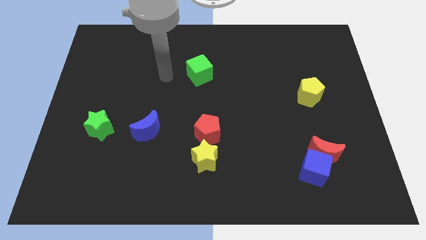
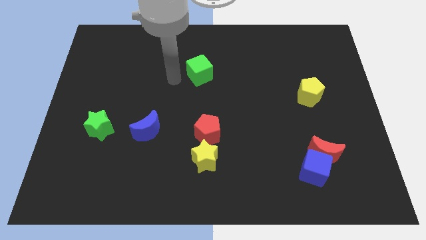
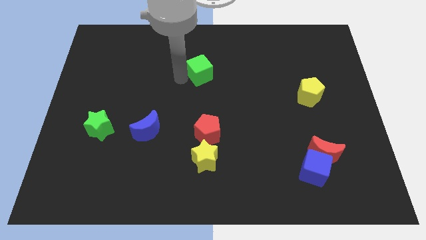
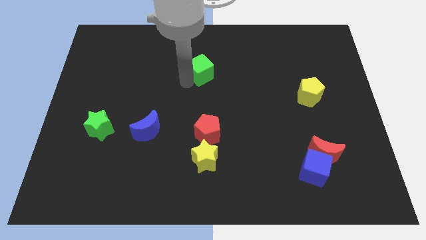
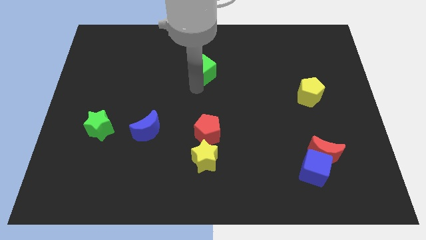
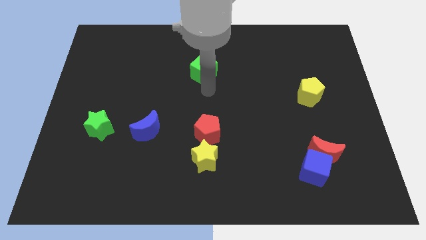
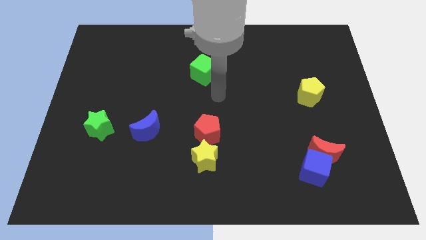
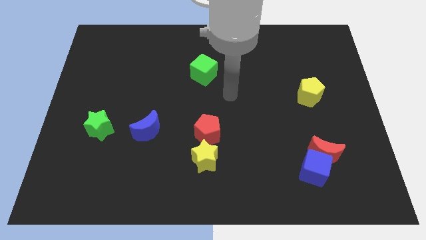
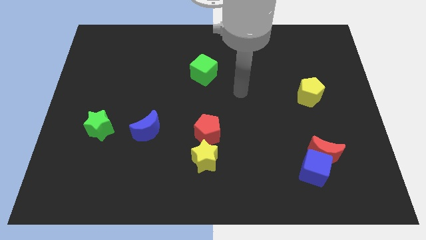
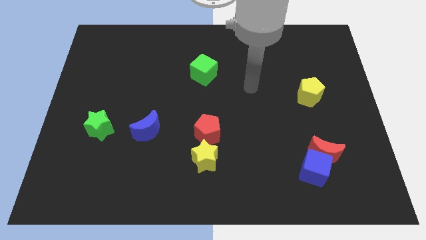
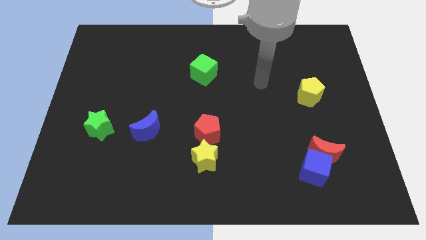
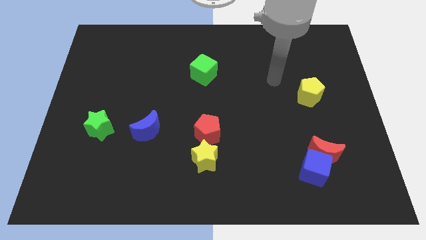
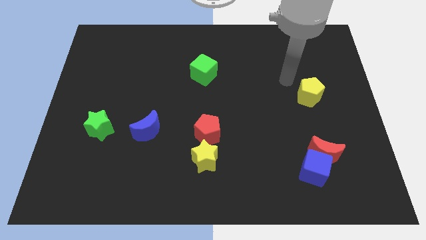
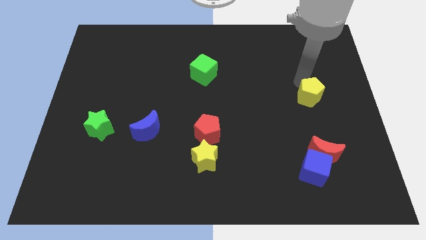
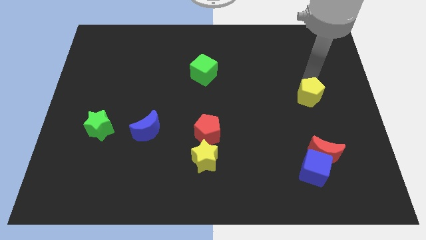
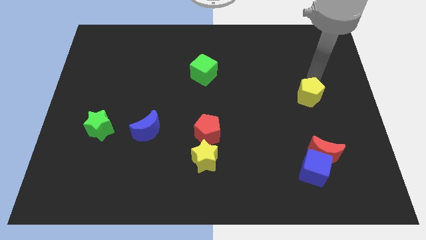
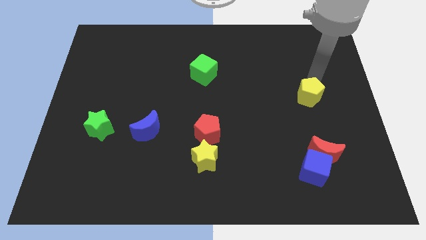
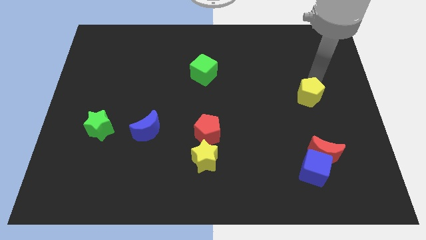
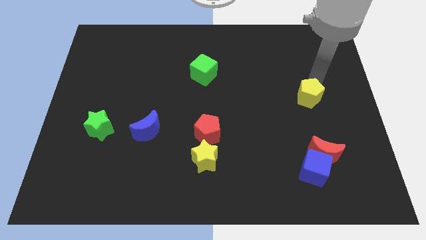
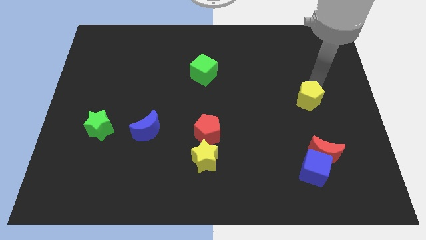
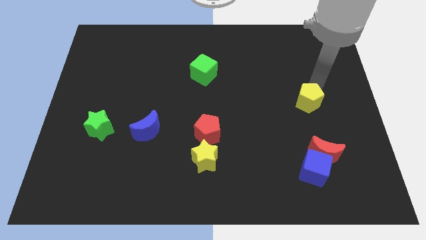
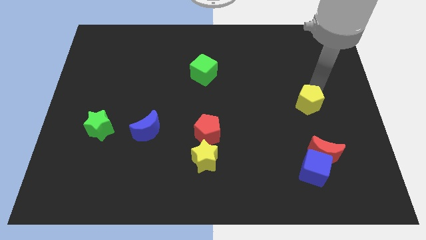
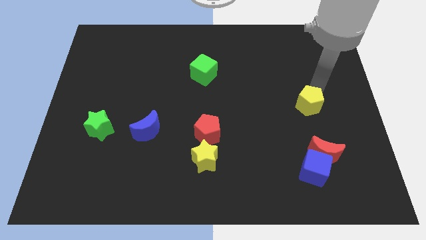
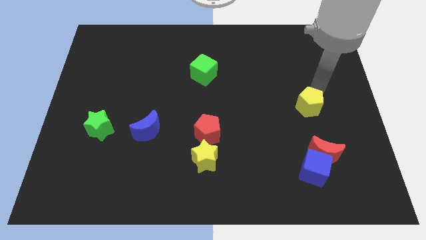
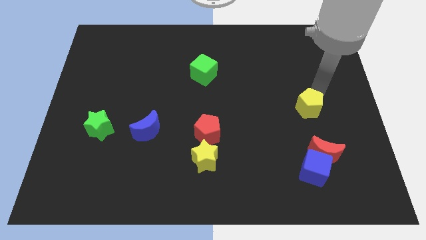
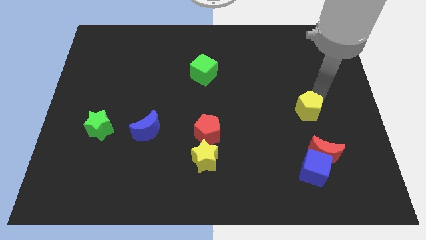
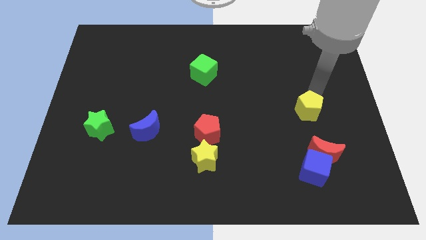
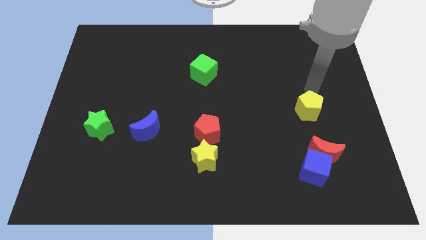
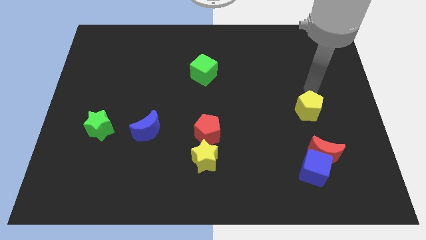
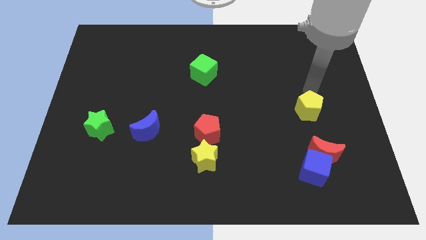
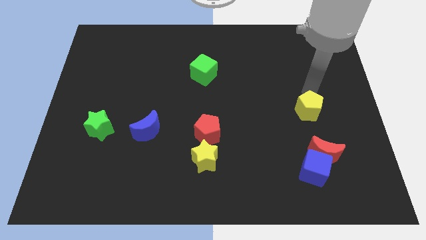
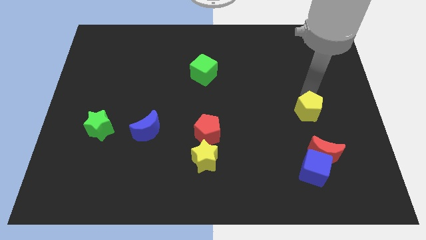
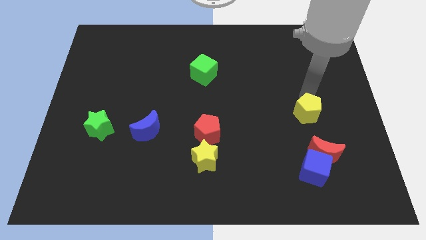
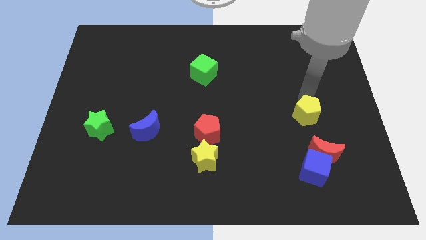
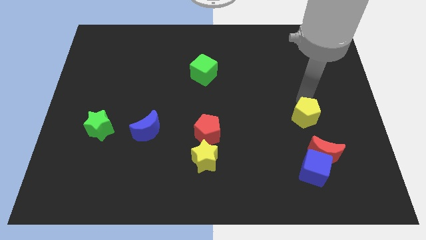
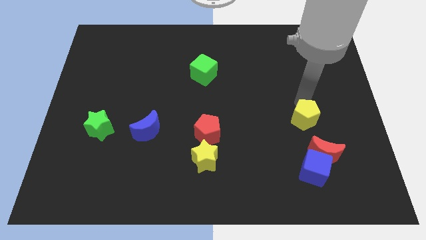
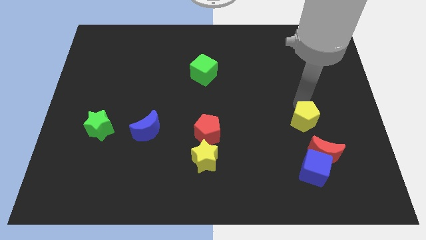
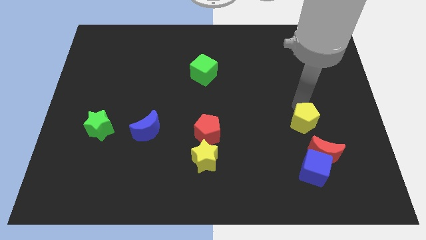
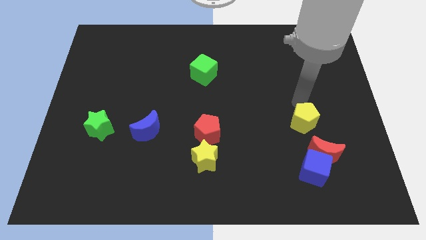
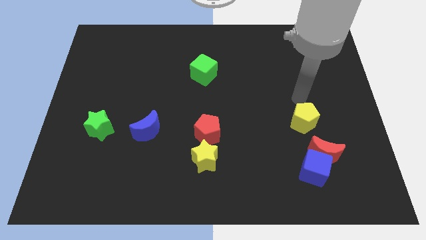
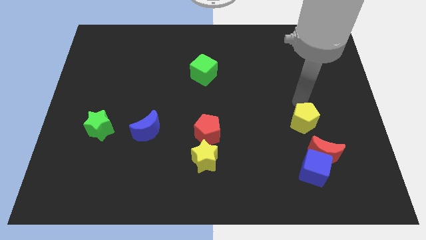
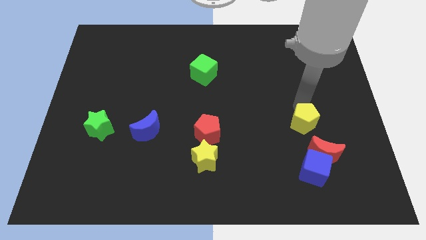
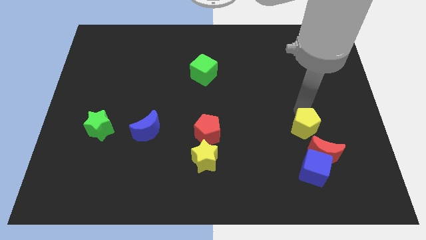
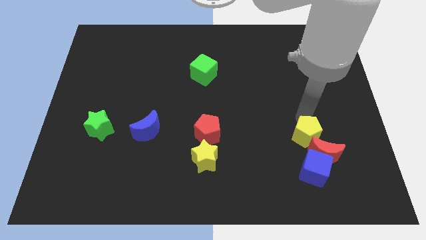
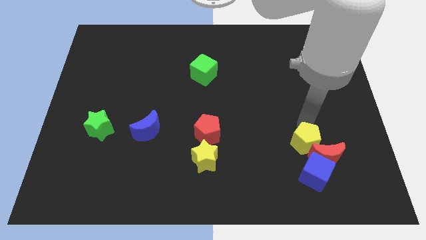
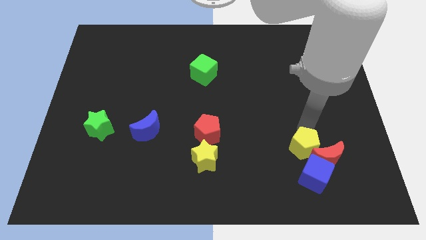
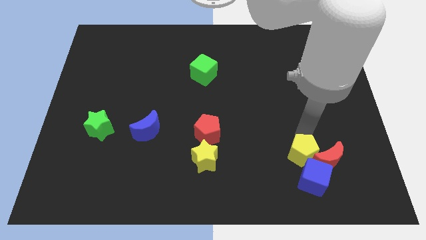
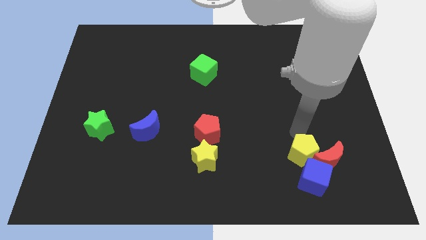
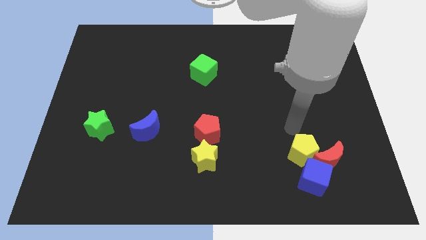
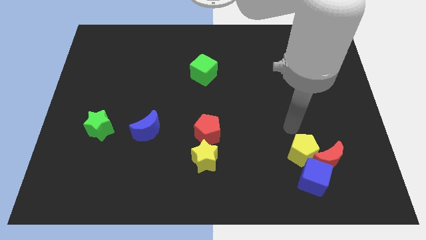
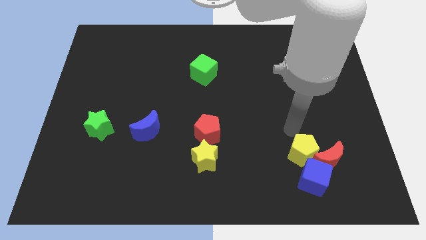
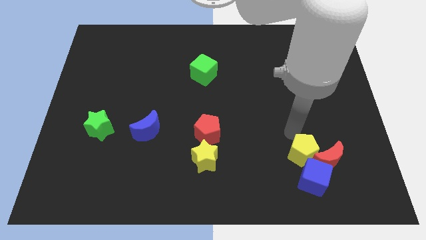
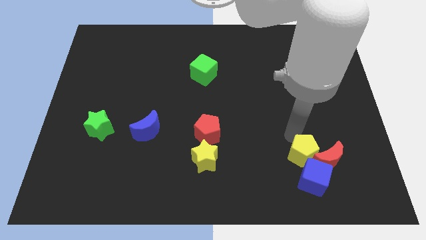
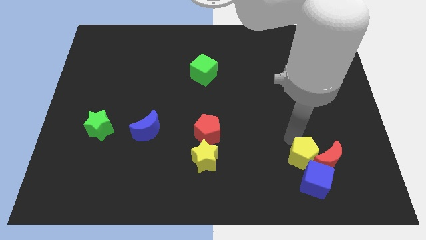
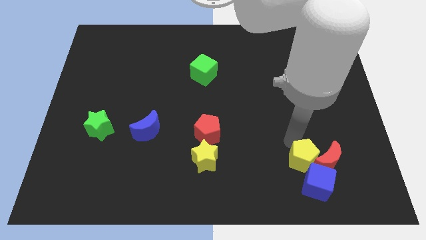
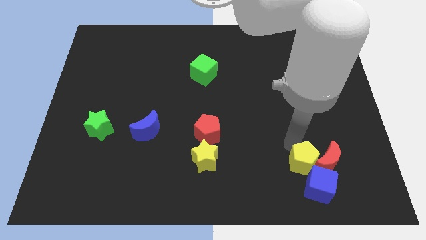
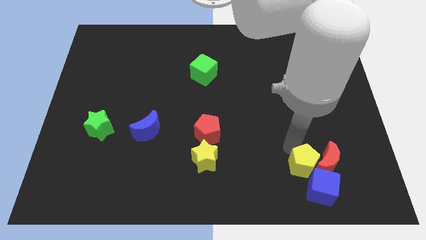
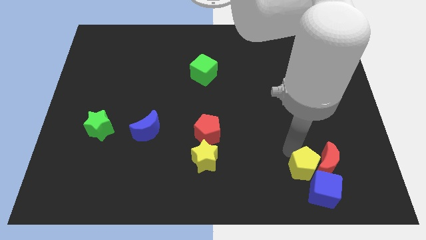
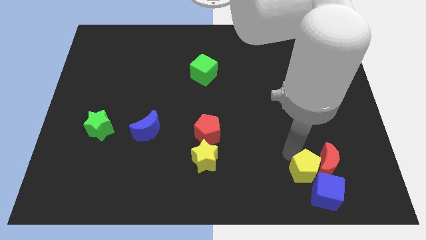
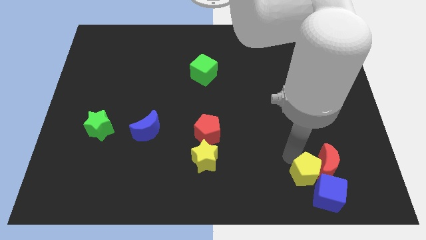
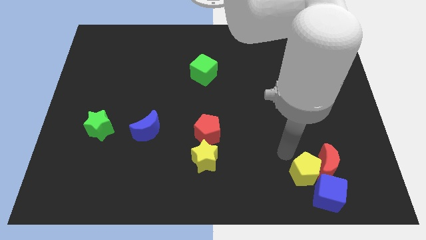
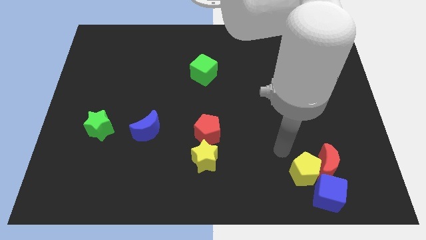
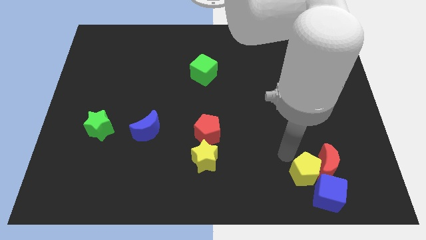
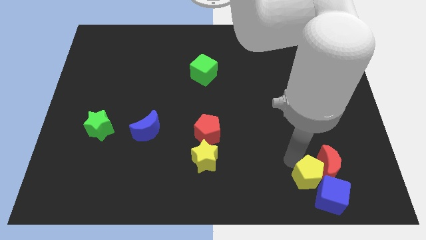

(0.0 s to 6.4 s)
put the yellow pentagon next to the blue cube
